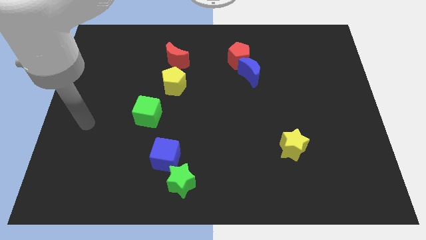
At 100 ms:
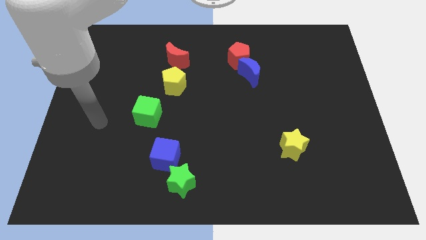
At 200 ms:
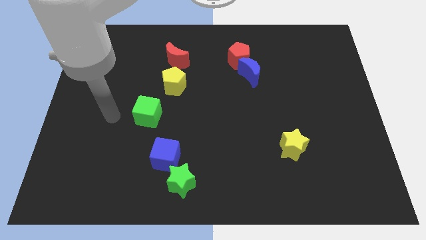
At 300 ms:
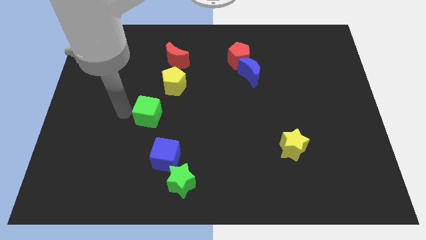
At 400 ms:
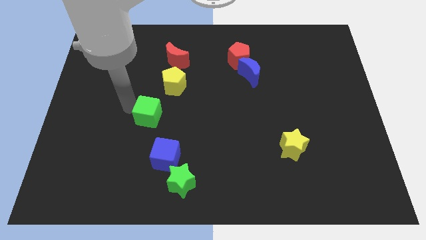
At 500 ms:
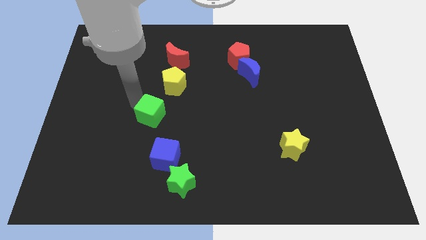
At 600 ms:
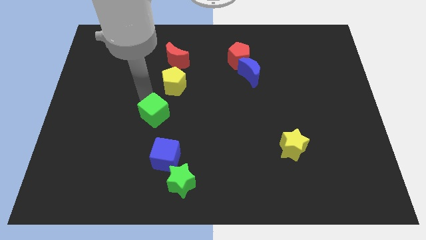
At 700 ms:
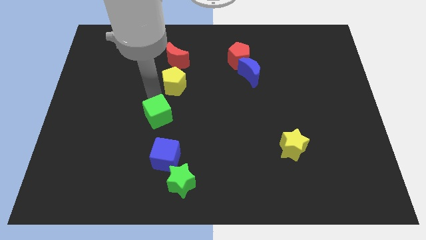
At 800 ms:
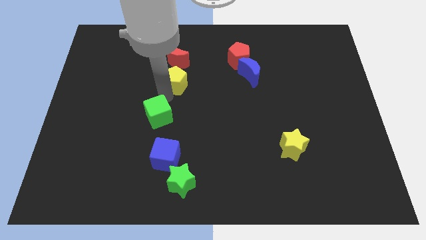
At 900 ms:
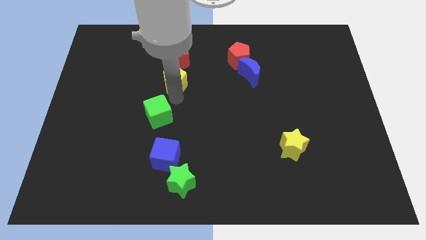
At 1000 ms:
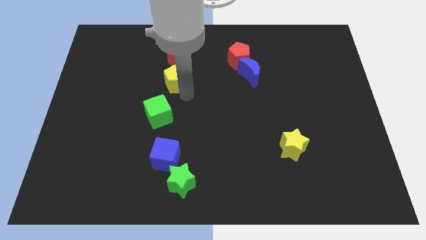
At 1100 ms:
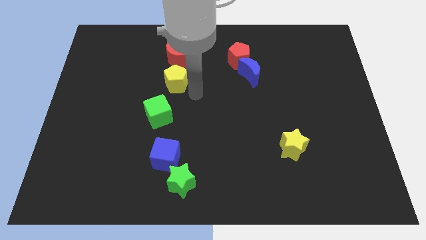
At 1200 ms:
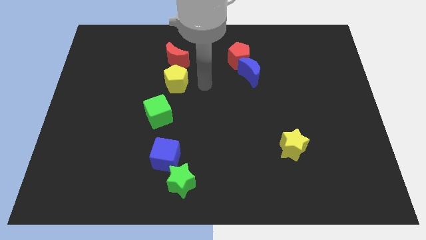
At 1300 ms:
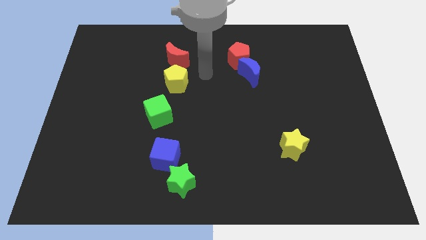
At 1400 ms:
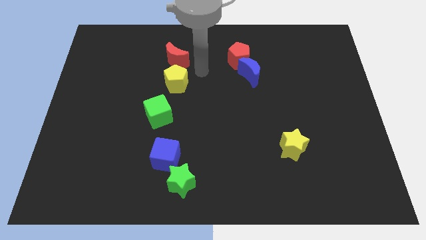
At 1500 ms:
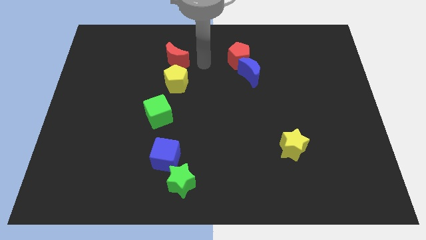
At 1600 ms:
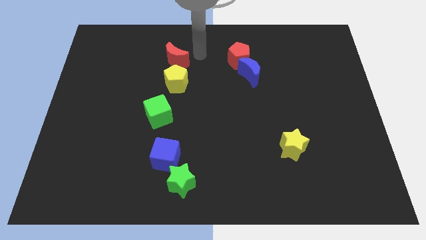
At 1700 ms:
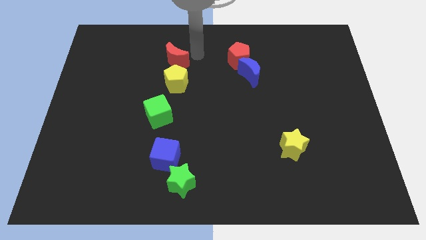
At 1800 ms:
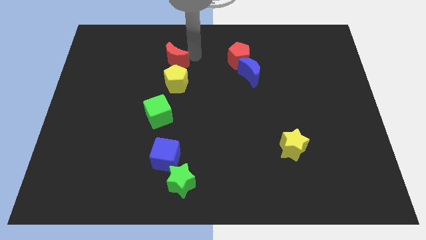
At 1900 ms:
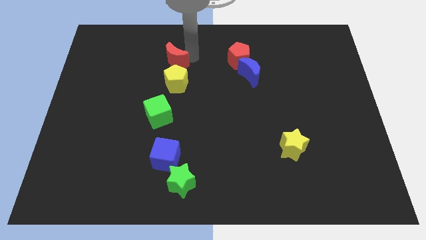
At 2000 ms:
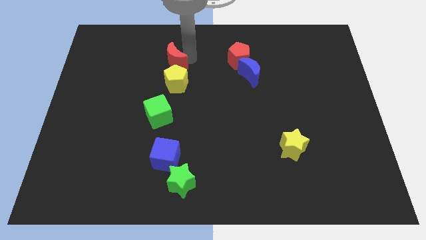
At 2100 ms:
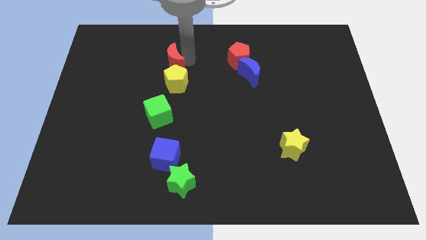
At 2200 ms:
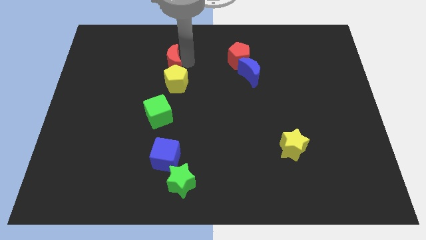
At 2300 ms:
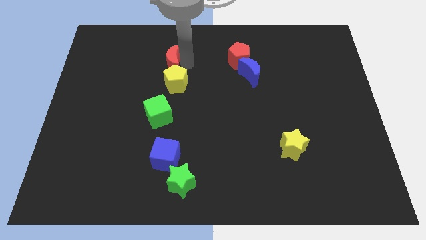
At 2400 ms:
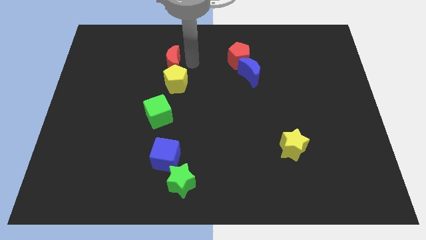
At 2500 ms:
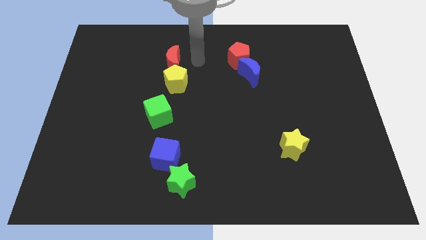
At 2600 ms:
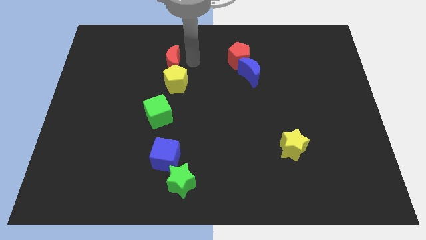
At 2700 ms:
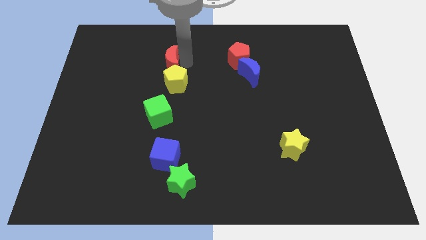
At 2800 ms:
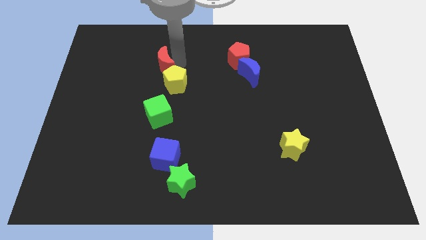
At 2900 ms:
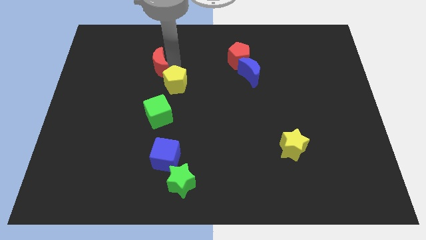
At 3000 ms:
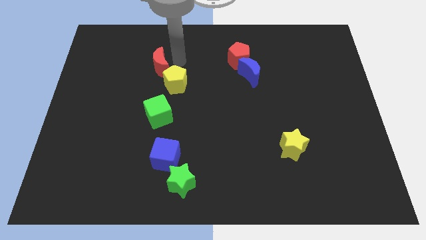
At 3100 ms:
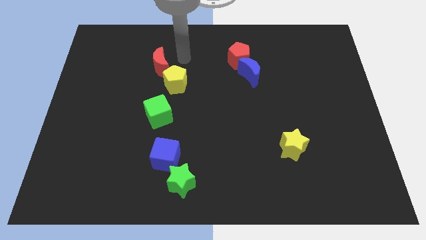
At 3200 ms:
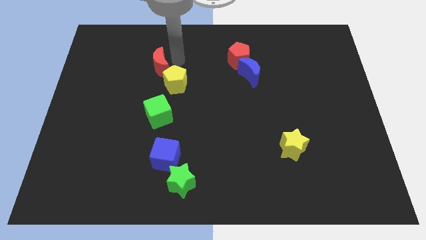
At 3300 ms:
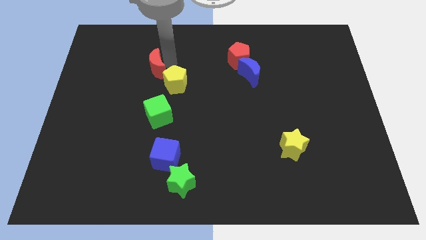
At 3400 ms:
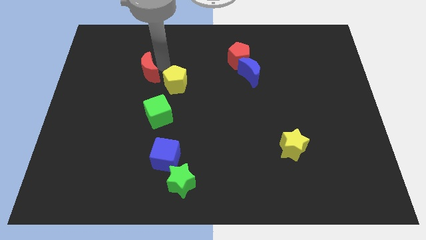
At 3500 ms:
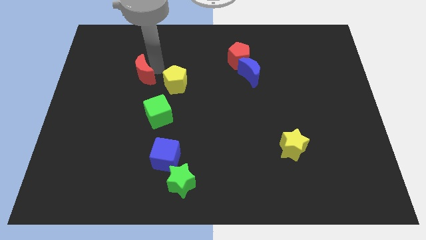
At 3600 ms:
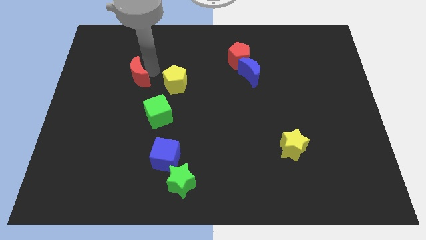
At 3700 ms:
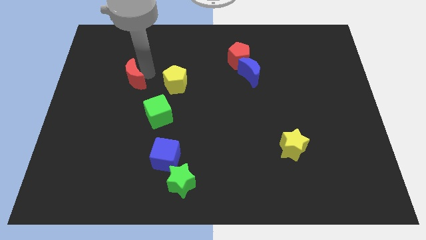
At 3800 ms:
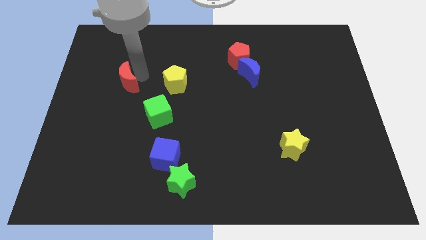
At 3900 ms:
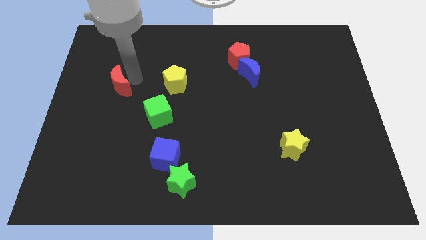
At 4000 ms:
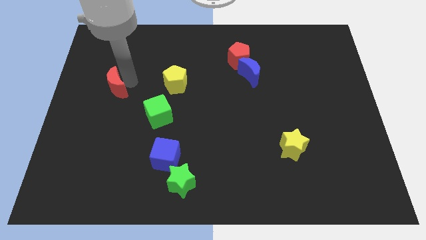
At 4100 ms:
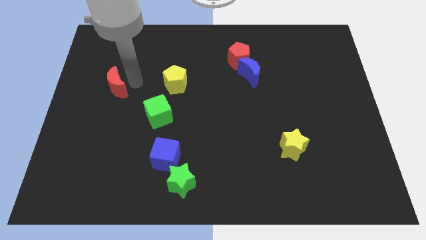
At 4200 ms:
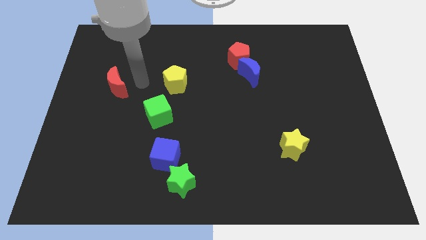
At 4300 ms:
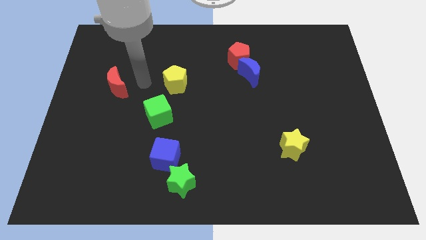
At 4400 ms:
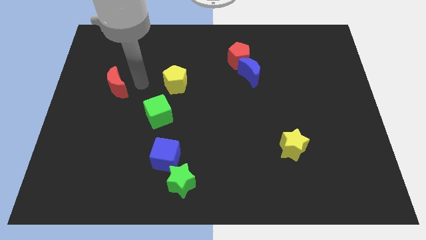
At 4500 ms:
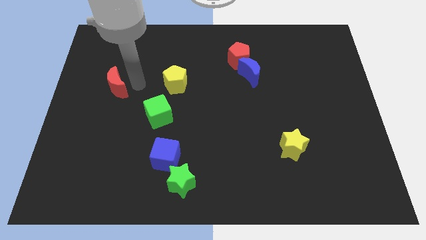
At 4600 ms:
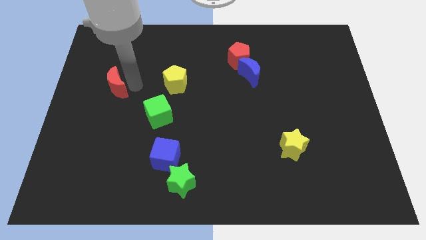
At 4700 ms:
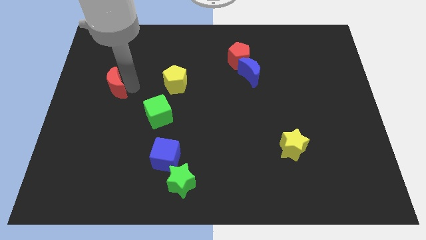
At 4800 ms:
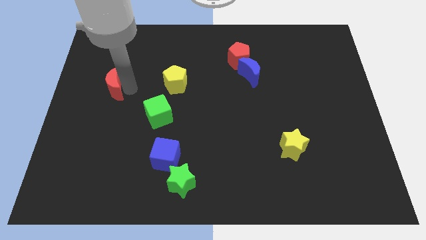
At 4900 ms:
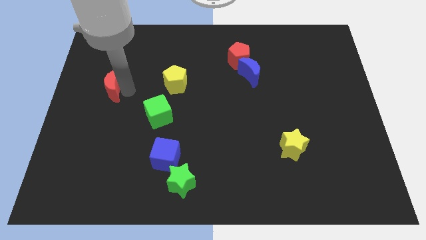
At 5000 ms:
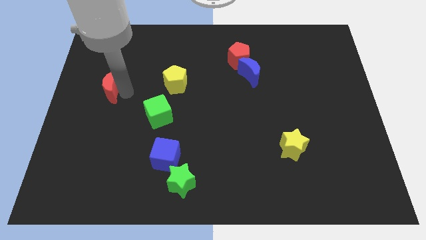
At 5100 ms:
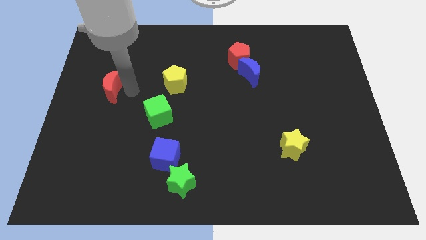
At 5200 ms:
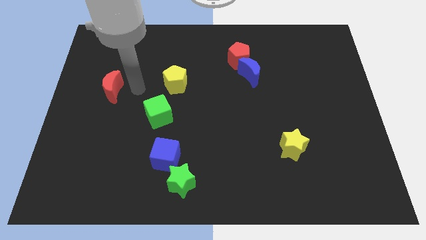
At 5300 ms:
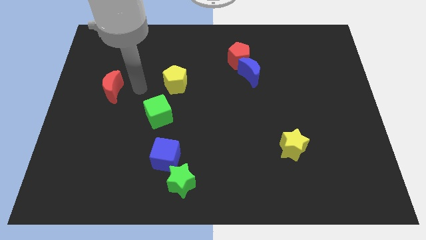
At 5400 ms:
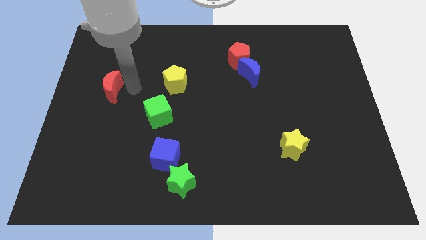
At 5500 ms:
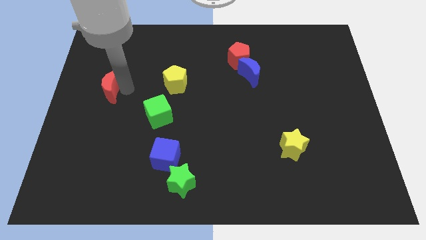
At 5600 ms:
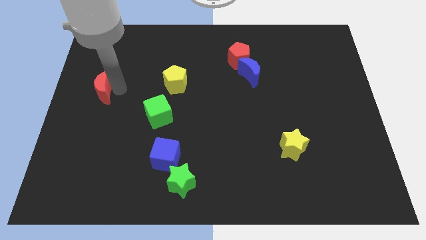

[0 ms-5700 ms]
move the red moon to the left side

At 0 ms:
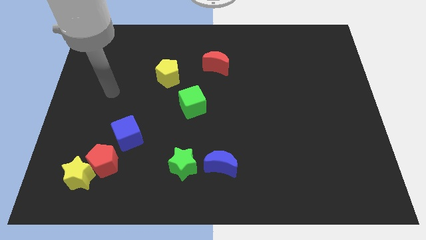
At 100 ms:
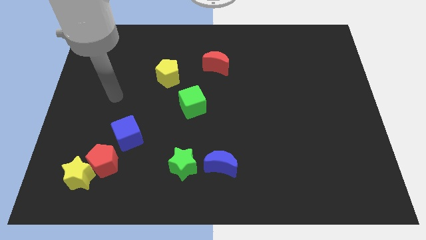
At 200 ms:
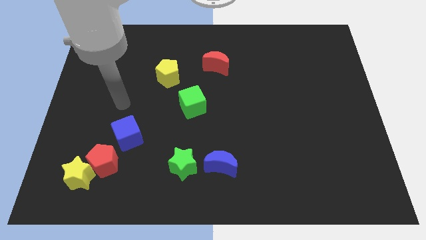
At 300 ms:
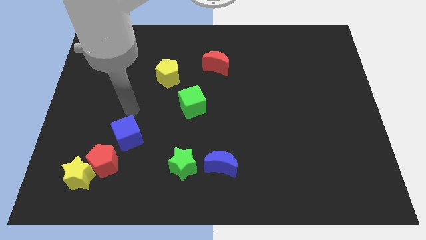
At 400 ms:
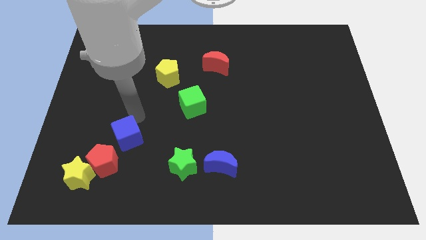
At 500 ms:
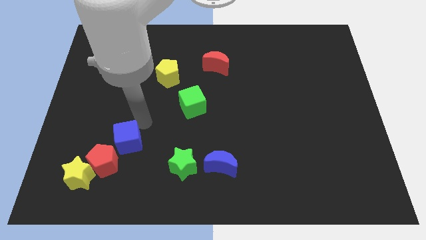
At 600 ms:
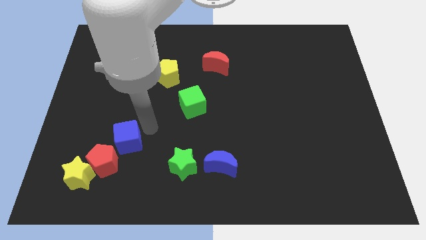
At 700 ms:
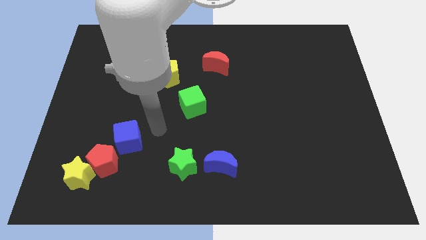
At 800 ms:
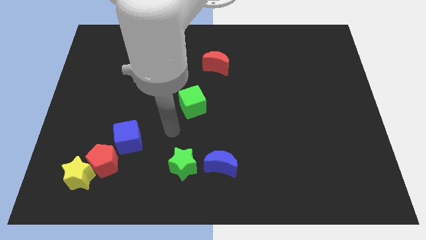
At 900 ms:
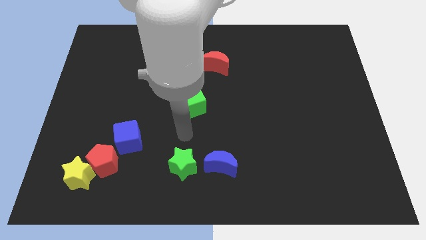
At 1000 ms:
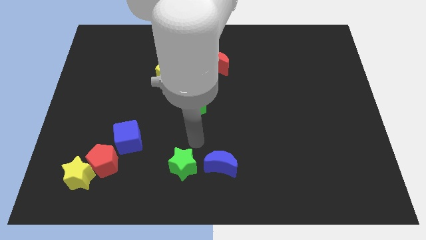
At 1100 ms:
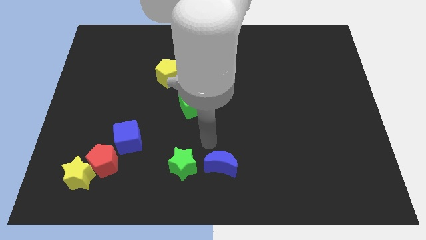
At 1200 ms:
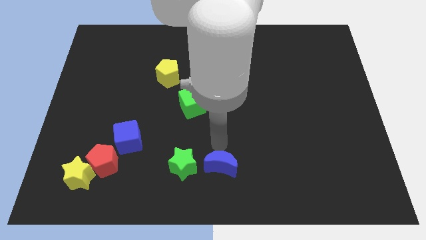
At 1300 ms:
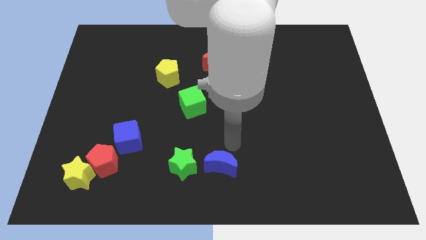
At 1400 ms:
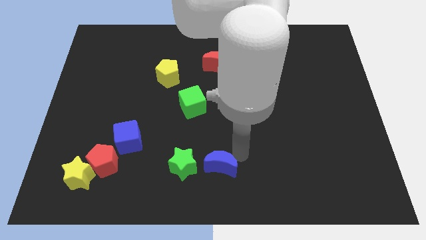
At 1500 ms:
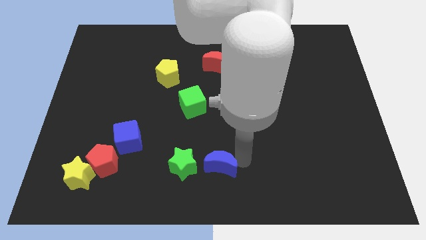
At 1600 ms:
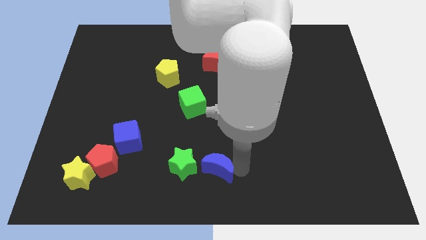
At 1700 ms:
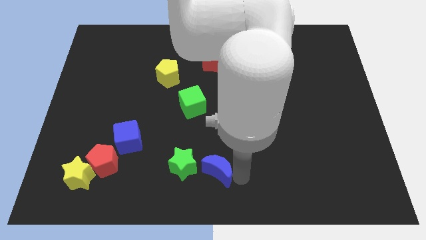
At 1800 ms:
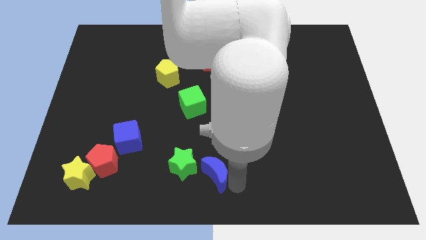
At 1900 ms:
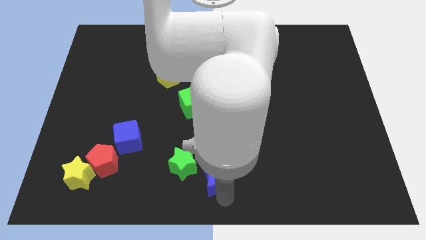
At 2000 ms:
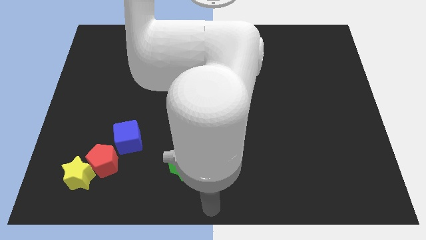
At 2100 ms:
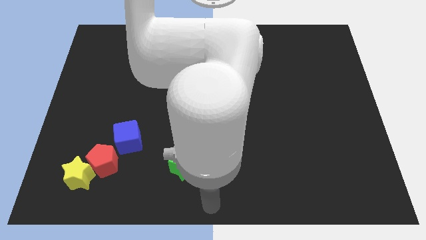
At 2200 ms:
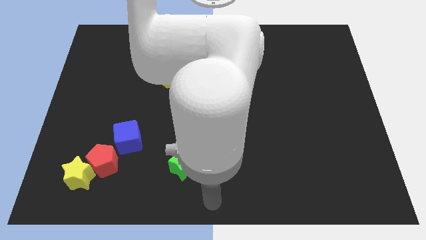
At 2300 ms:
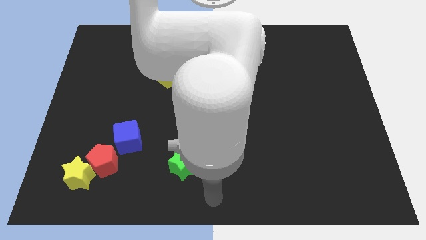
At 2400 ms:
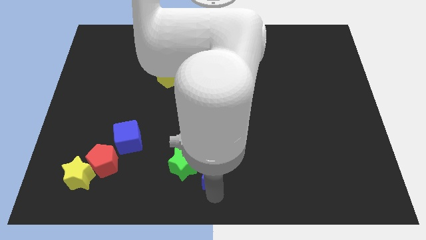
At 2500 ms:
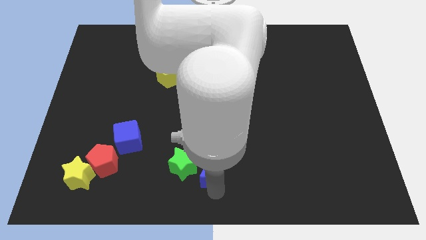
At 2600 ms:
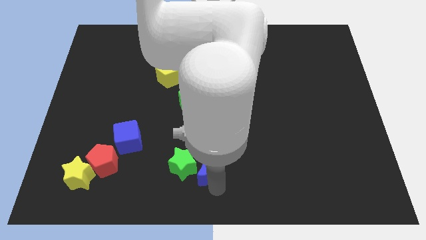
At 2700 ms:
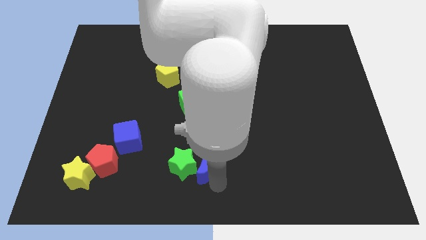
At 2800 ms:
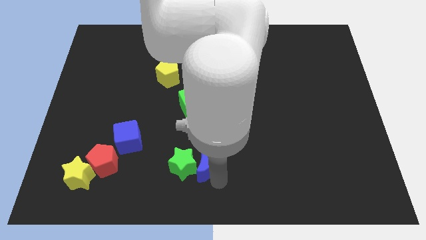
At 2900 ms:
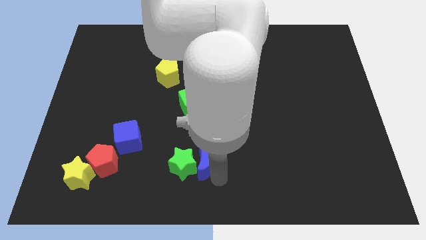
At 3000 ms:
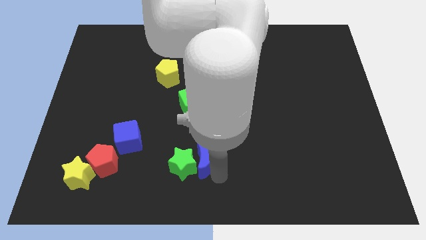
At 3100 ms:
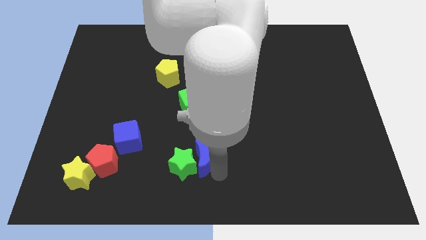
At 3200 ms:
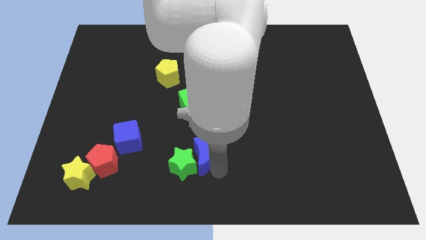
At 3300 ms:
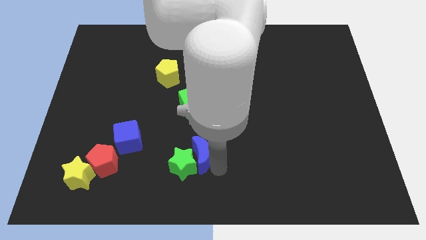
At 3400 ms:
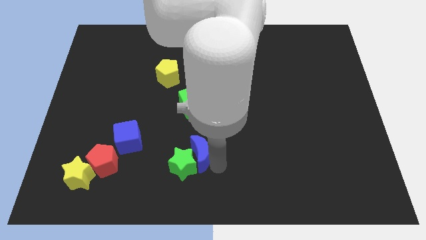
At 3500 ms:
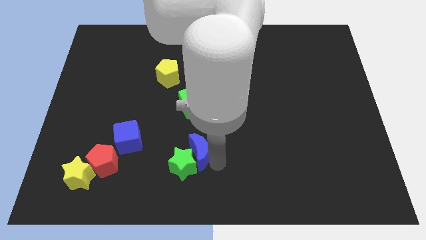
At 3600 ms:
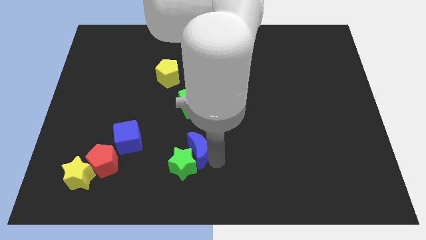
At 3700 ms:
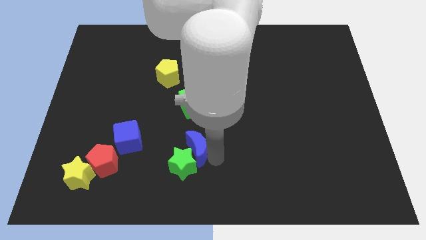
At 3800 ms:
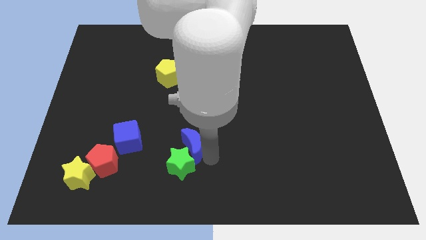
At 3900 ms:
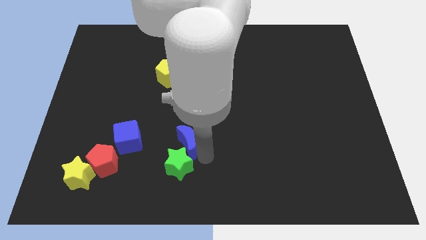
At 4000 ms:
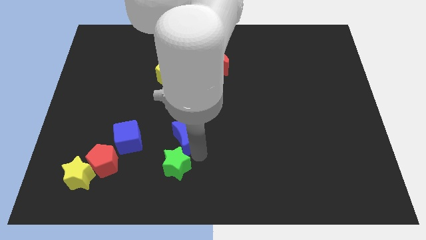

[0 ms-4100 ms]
slide the blue moon to the center of the board
